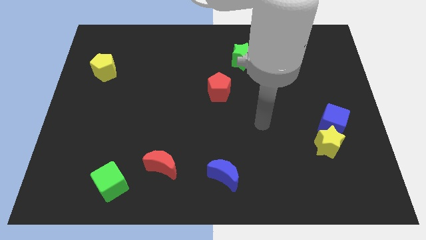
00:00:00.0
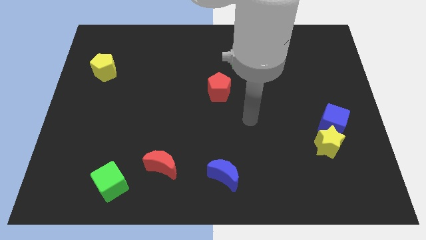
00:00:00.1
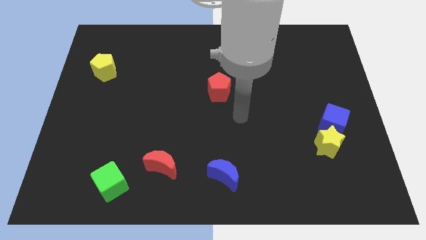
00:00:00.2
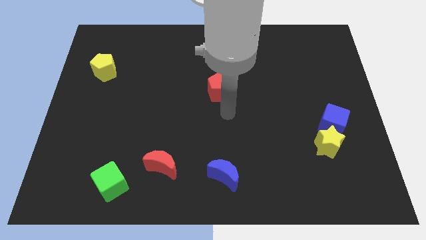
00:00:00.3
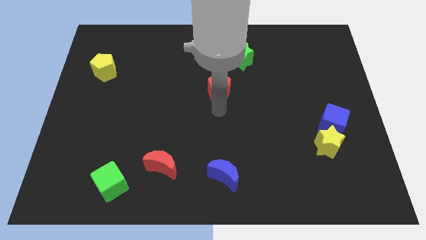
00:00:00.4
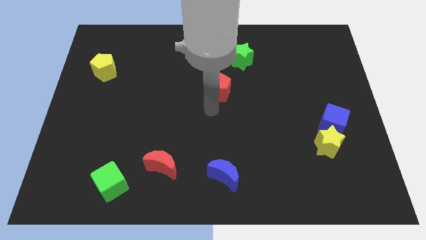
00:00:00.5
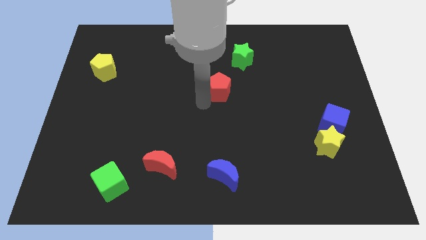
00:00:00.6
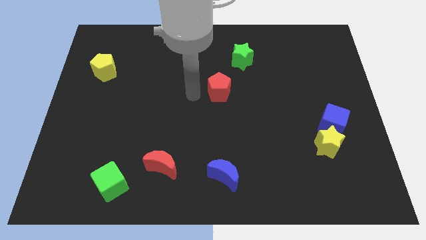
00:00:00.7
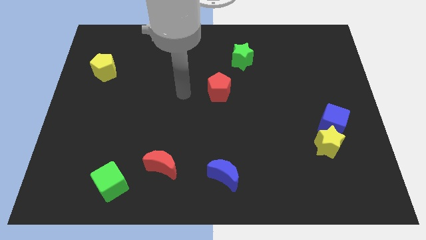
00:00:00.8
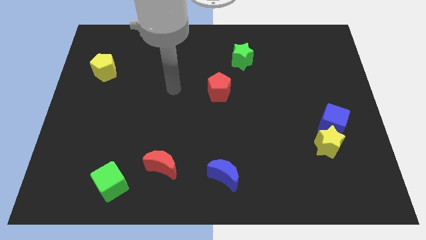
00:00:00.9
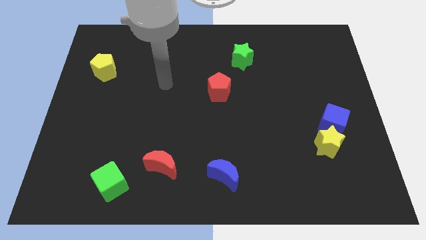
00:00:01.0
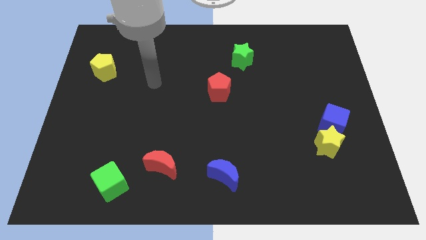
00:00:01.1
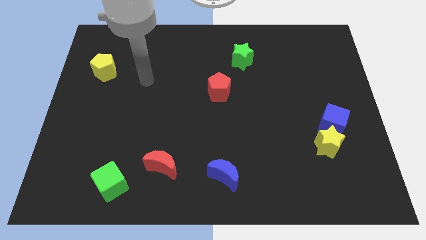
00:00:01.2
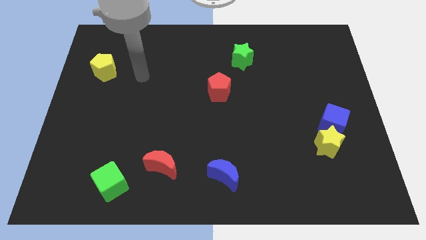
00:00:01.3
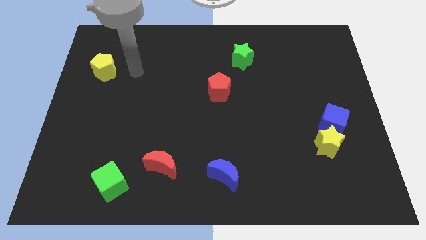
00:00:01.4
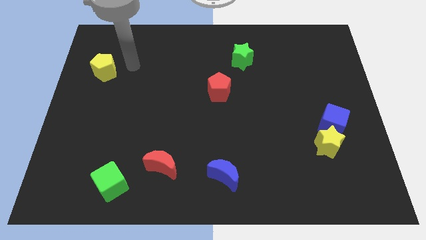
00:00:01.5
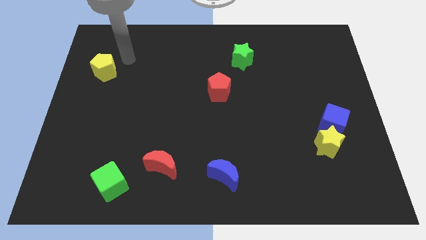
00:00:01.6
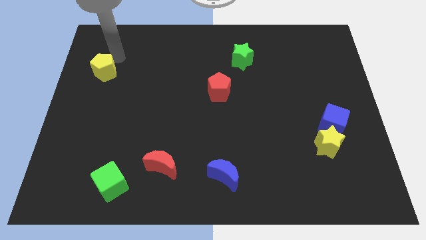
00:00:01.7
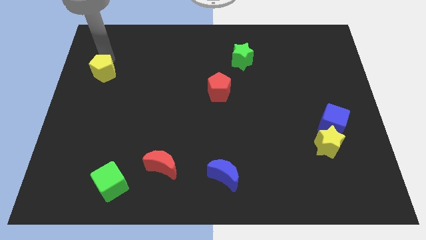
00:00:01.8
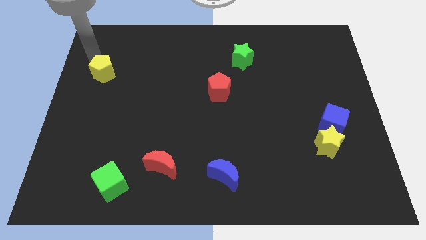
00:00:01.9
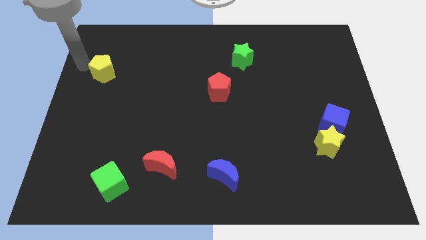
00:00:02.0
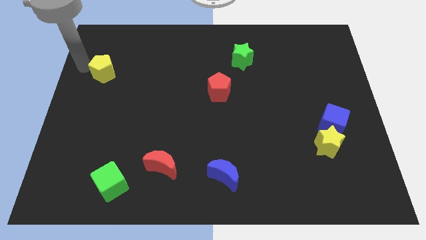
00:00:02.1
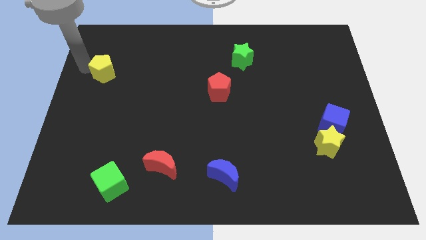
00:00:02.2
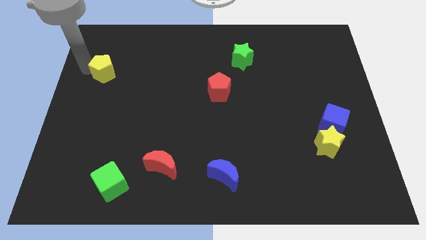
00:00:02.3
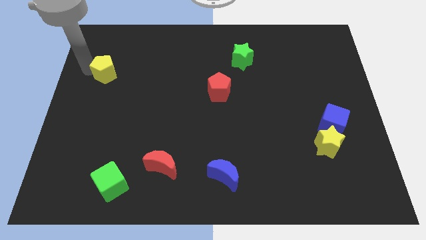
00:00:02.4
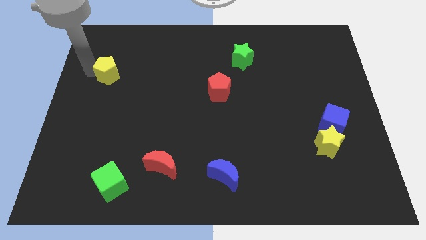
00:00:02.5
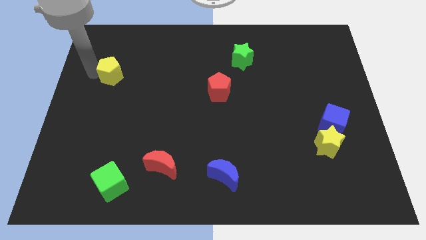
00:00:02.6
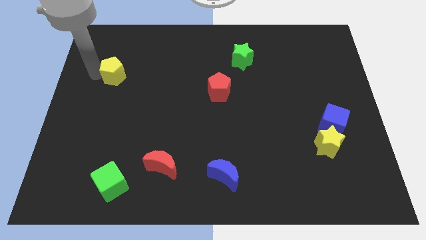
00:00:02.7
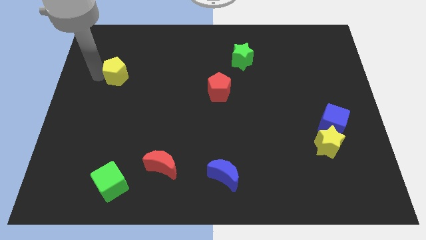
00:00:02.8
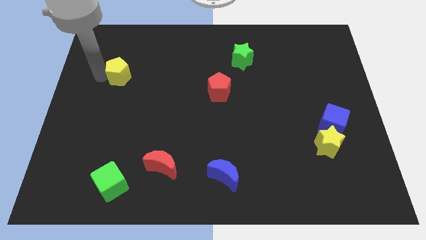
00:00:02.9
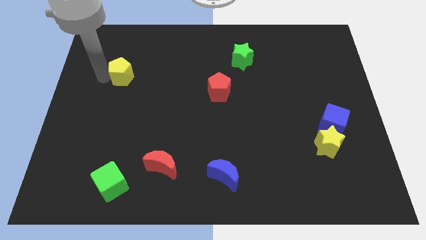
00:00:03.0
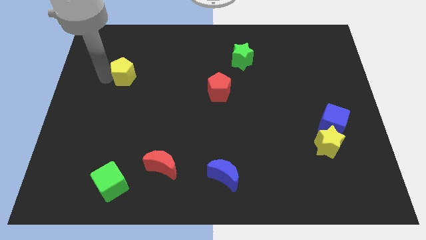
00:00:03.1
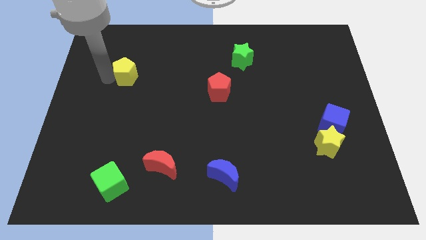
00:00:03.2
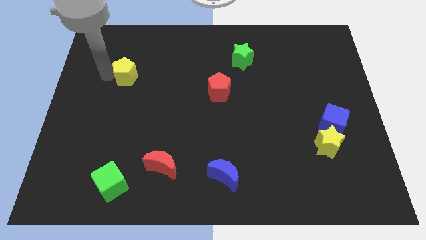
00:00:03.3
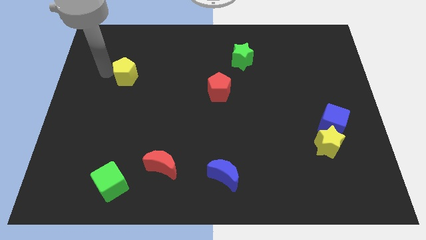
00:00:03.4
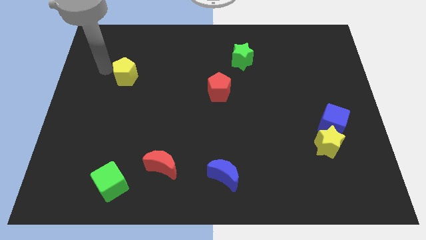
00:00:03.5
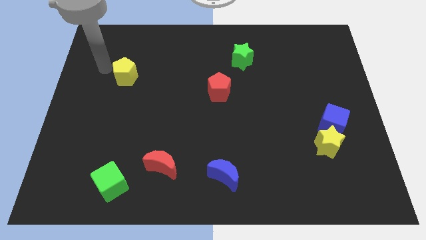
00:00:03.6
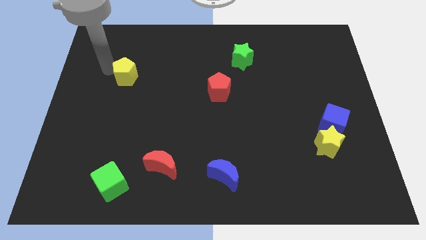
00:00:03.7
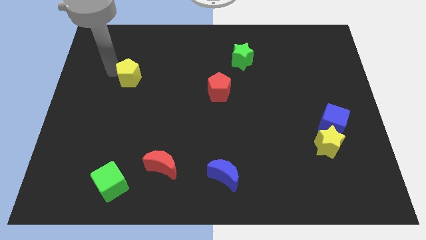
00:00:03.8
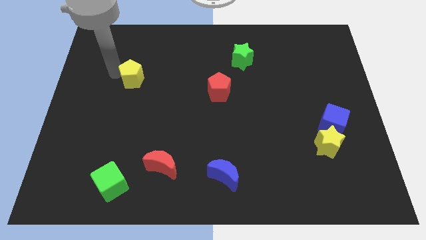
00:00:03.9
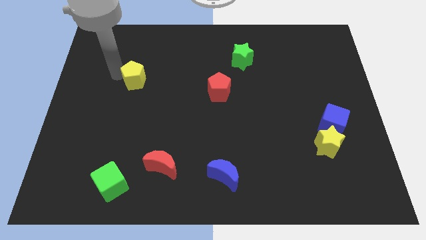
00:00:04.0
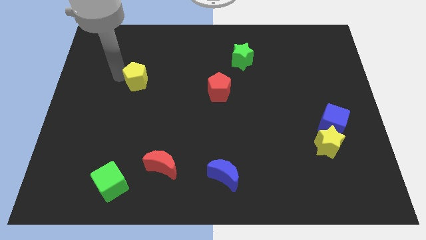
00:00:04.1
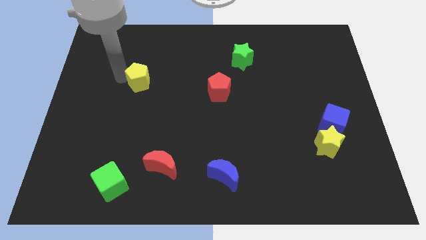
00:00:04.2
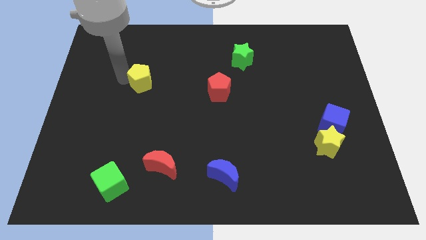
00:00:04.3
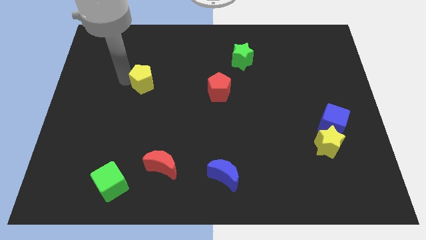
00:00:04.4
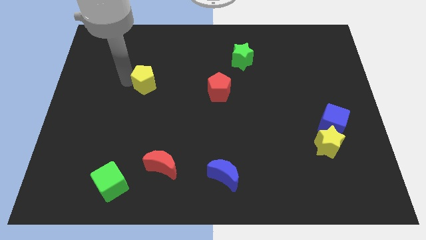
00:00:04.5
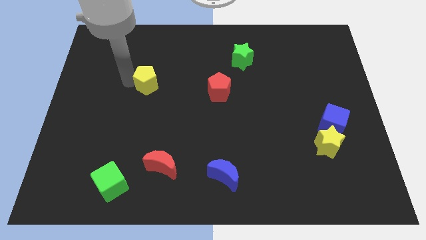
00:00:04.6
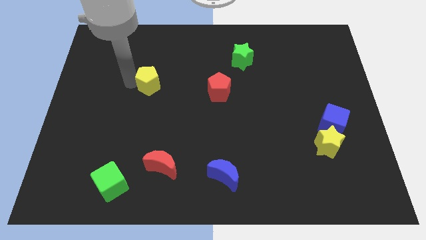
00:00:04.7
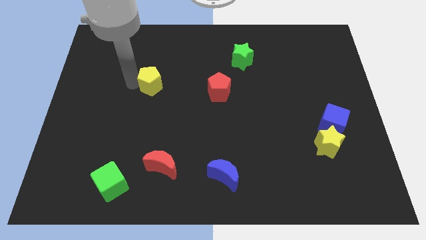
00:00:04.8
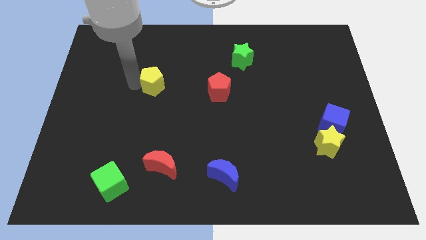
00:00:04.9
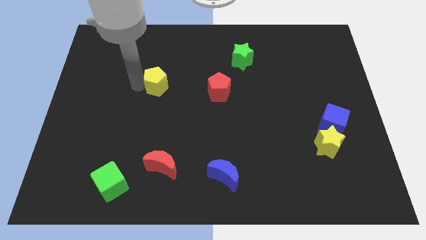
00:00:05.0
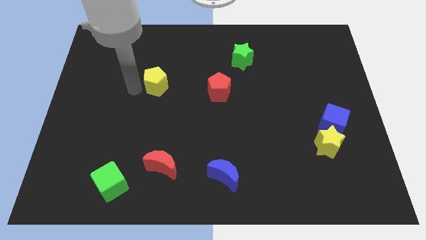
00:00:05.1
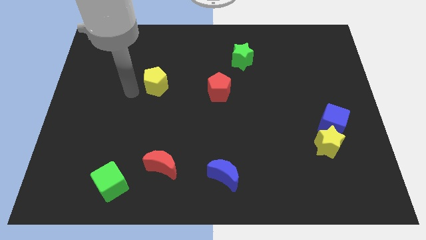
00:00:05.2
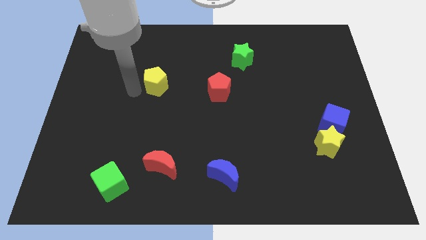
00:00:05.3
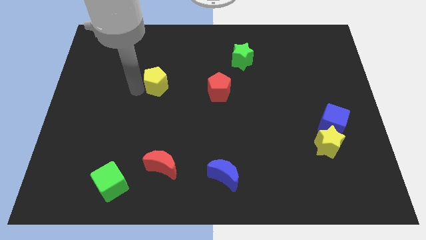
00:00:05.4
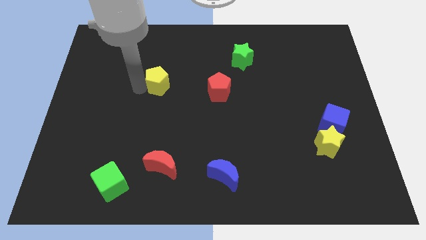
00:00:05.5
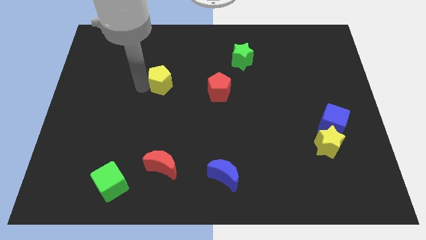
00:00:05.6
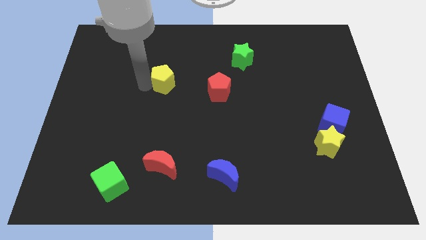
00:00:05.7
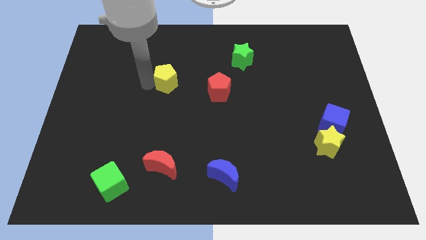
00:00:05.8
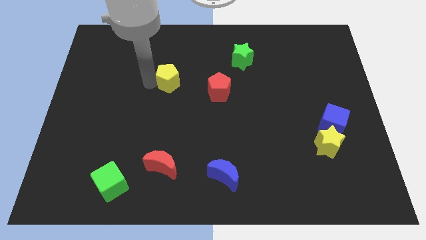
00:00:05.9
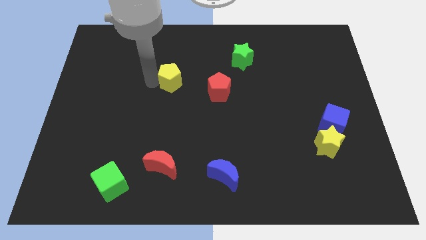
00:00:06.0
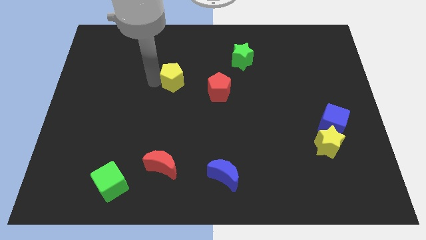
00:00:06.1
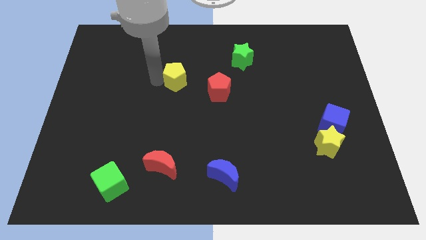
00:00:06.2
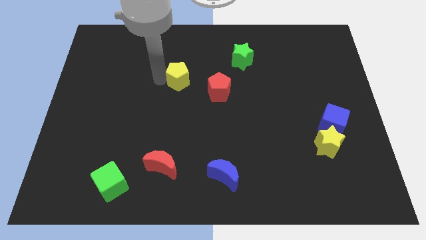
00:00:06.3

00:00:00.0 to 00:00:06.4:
move the yellow pentagon diagonally up and to the left of the red pentagon

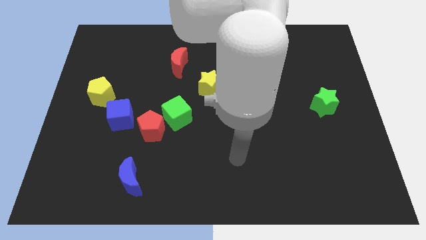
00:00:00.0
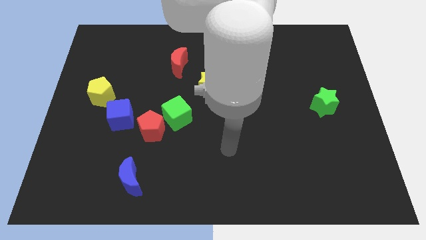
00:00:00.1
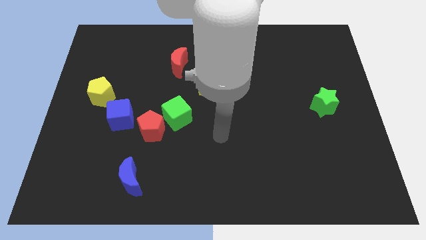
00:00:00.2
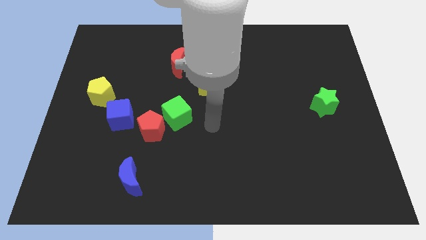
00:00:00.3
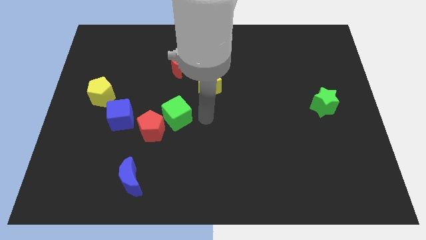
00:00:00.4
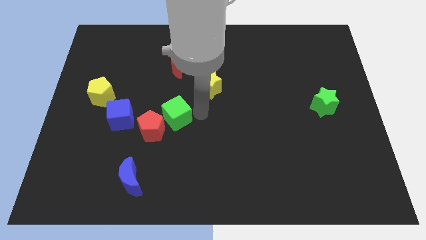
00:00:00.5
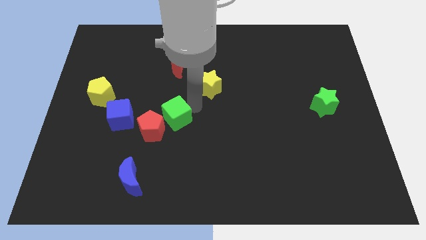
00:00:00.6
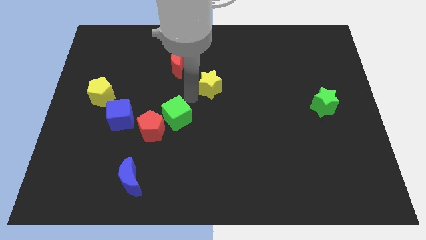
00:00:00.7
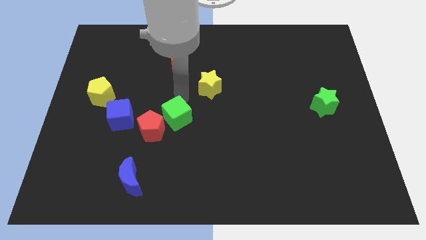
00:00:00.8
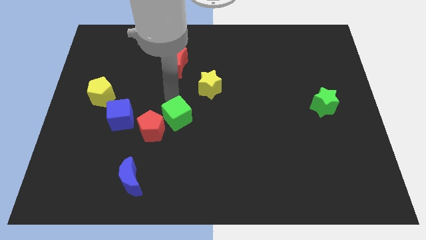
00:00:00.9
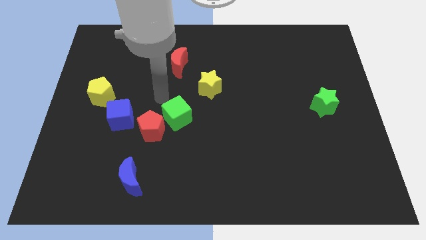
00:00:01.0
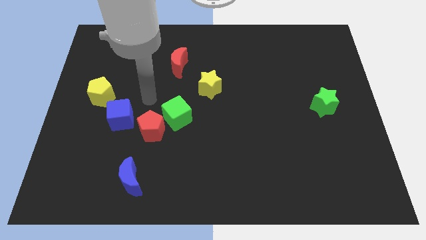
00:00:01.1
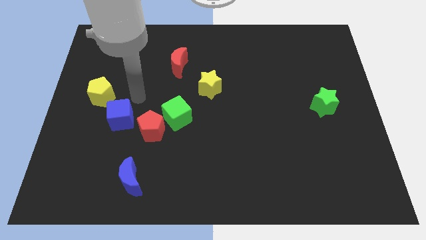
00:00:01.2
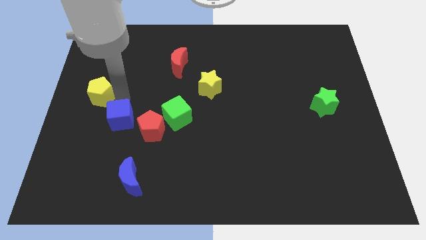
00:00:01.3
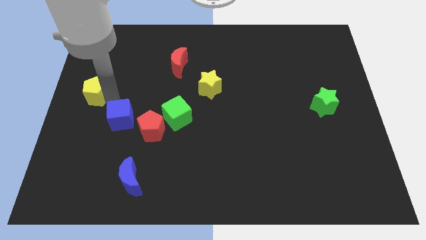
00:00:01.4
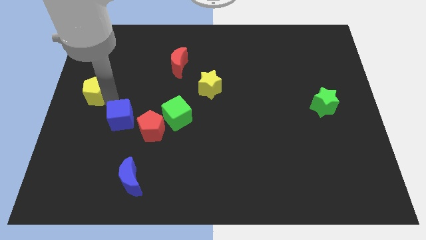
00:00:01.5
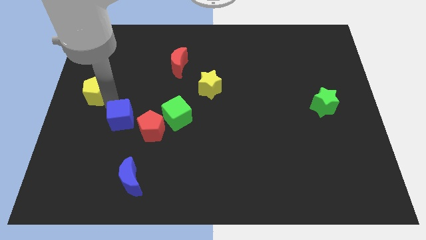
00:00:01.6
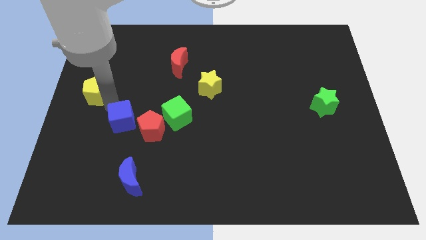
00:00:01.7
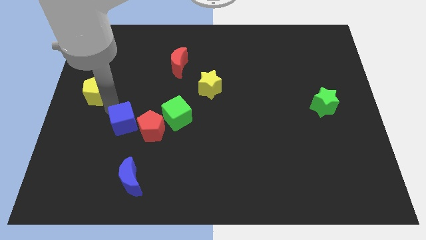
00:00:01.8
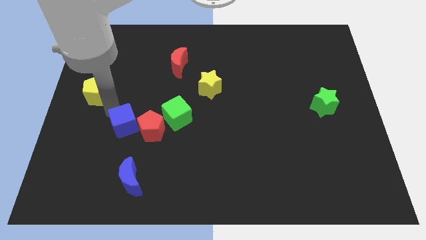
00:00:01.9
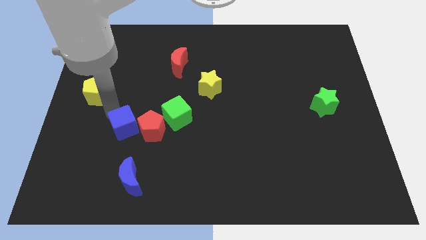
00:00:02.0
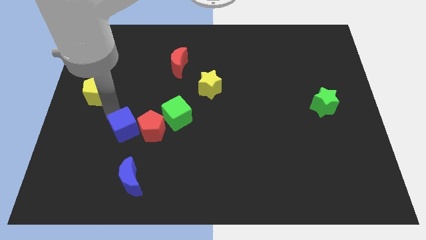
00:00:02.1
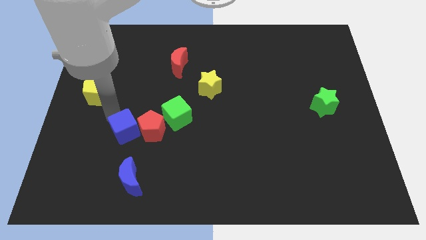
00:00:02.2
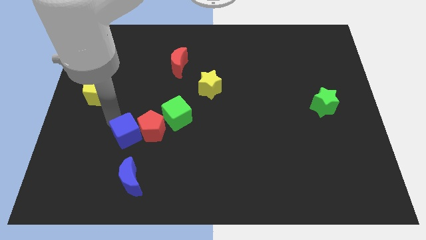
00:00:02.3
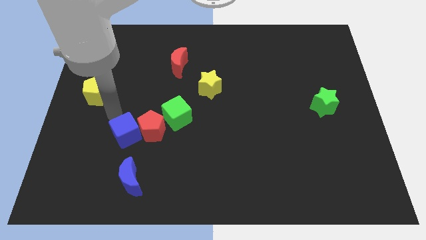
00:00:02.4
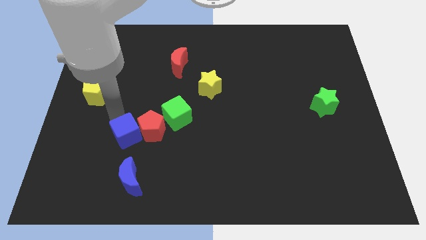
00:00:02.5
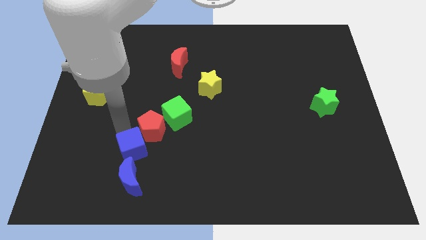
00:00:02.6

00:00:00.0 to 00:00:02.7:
move the blue cube to the bottom of the red pentagon
